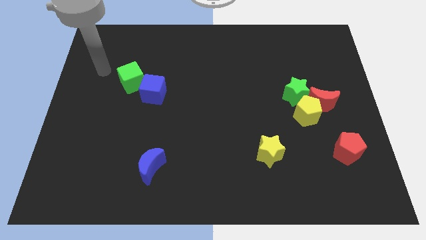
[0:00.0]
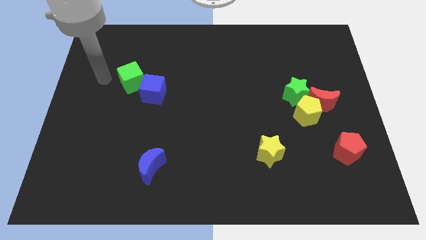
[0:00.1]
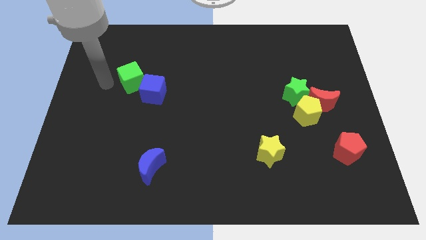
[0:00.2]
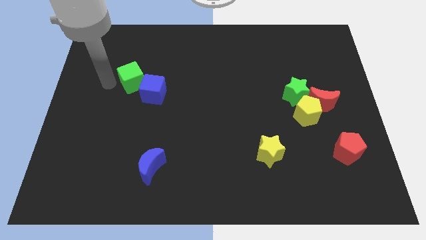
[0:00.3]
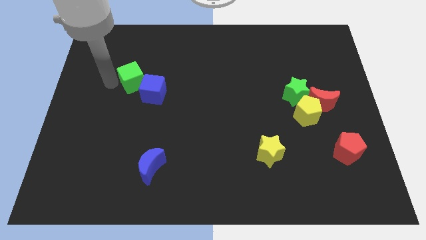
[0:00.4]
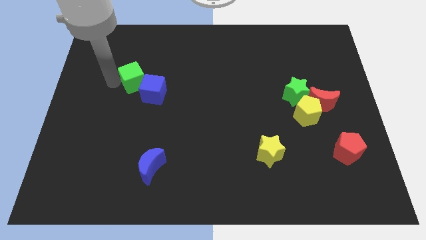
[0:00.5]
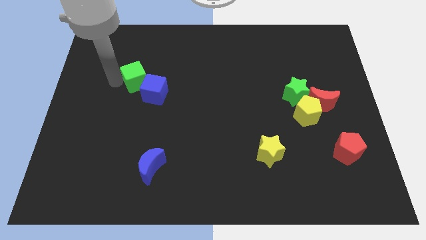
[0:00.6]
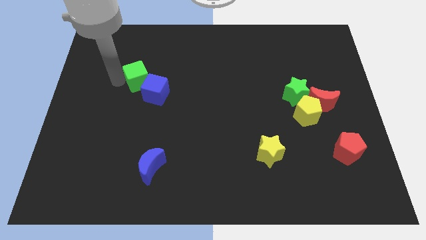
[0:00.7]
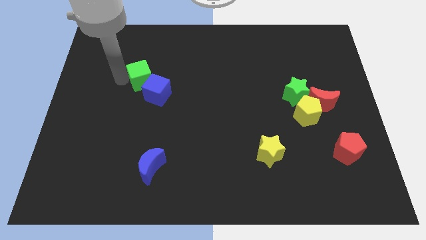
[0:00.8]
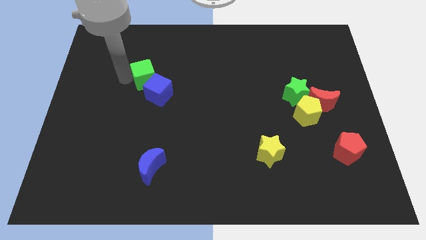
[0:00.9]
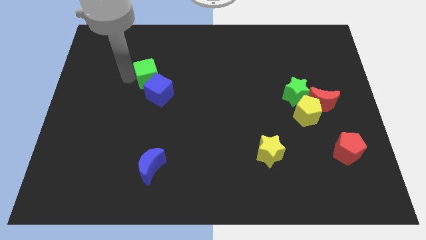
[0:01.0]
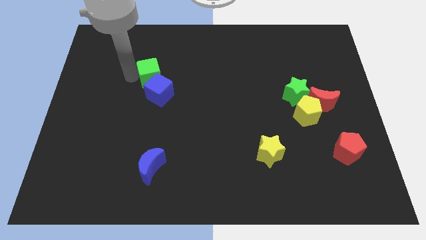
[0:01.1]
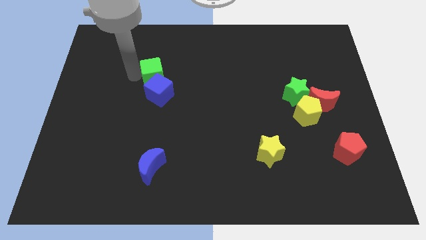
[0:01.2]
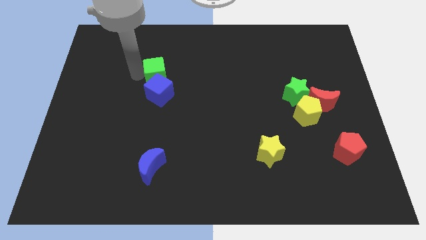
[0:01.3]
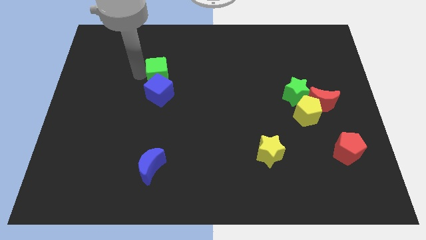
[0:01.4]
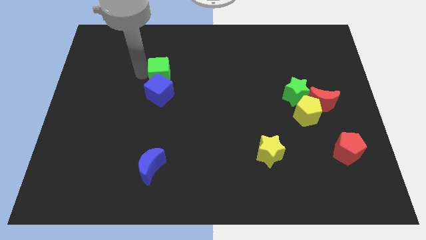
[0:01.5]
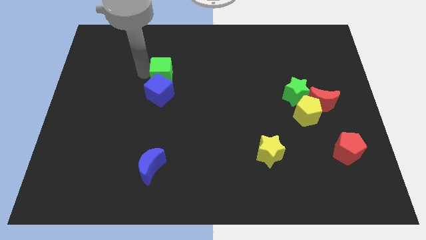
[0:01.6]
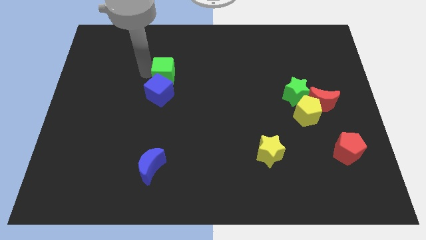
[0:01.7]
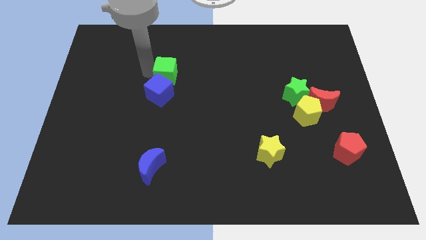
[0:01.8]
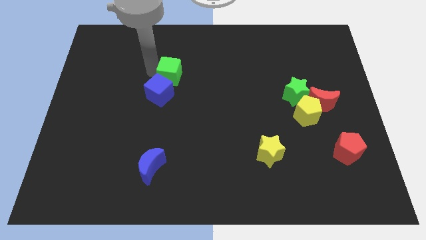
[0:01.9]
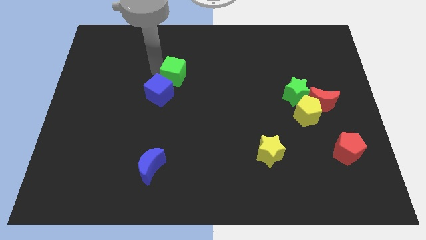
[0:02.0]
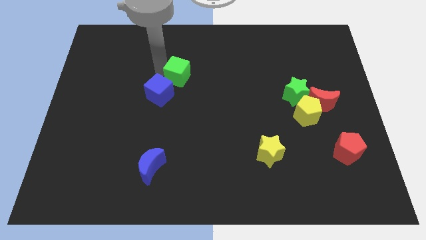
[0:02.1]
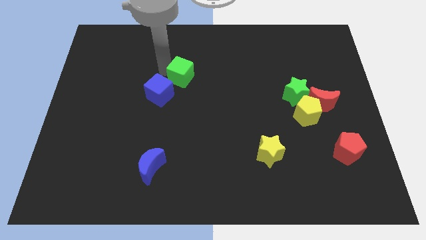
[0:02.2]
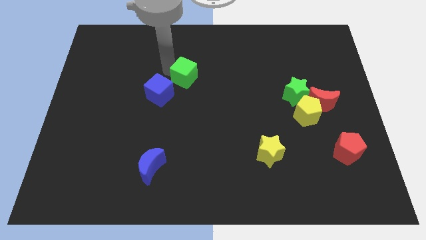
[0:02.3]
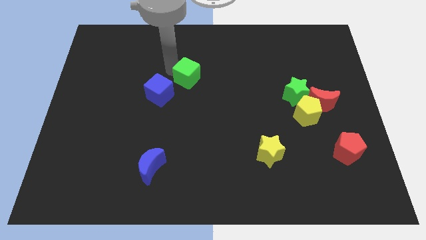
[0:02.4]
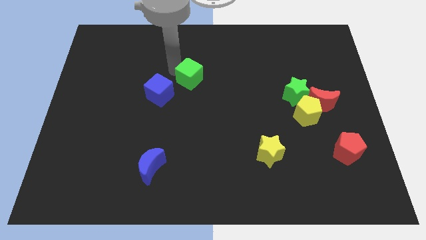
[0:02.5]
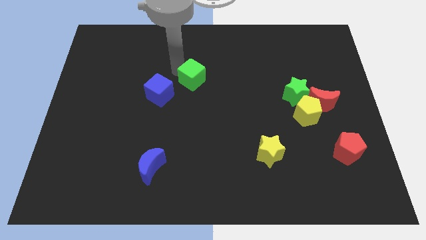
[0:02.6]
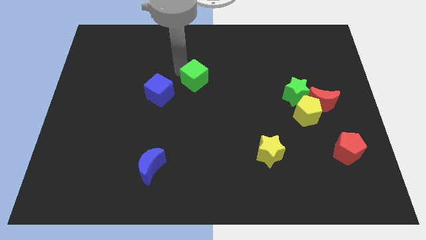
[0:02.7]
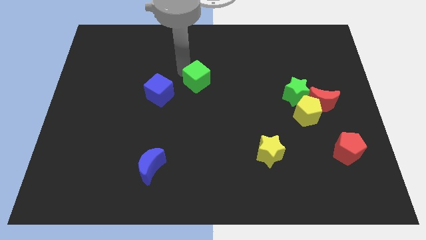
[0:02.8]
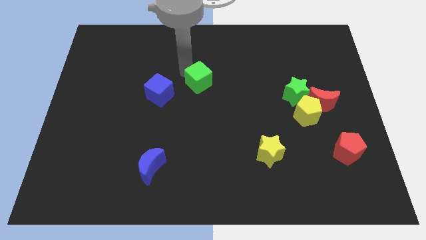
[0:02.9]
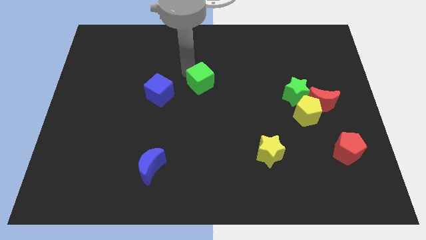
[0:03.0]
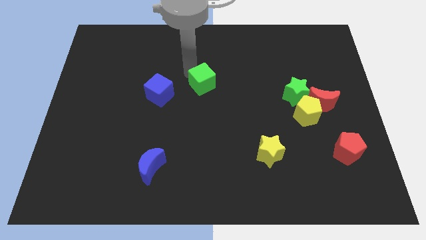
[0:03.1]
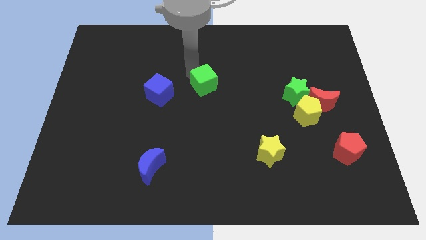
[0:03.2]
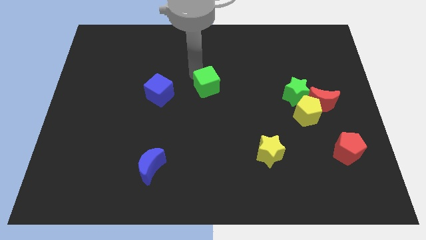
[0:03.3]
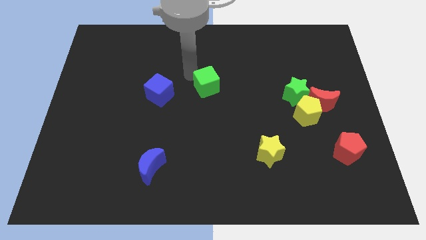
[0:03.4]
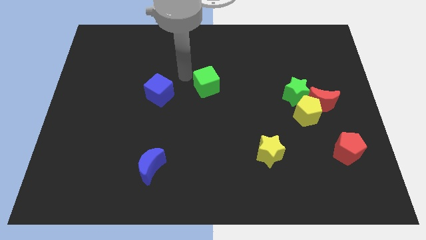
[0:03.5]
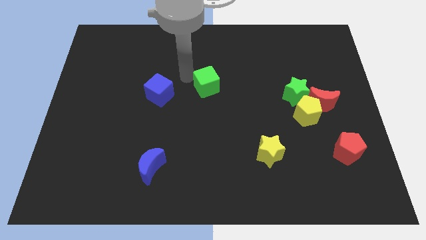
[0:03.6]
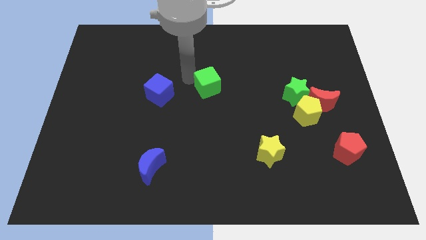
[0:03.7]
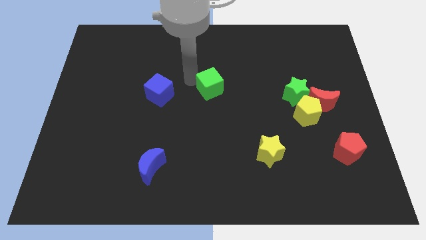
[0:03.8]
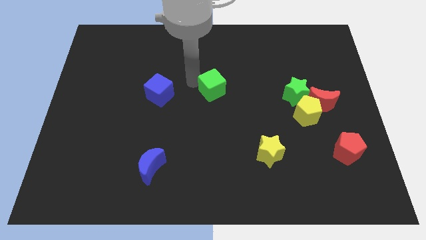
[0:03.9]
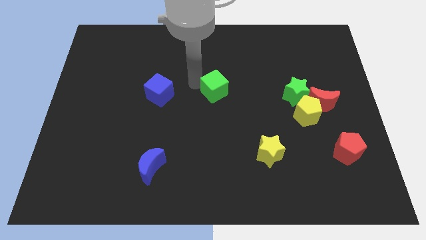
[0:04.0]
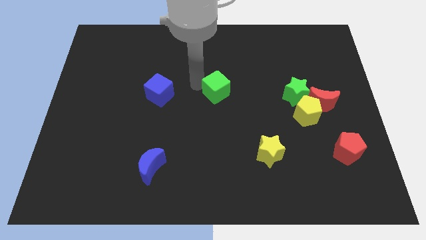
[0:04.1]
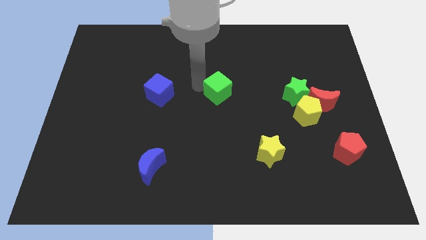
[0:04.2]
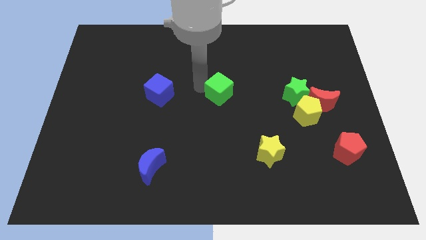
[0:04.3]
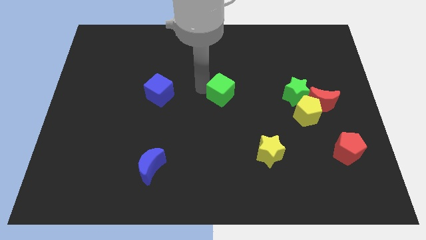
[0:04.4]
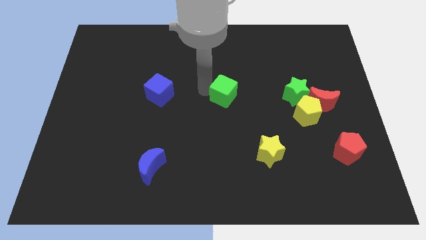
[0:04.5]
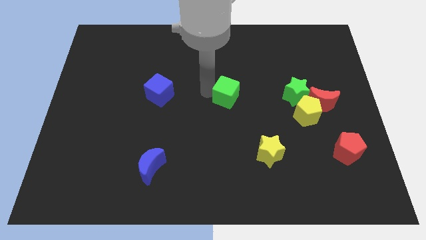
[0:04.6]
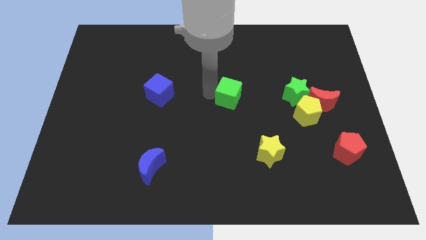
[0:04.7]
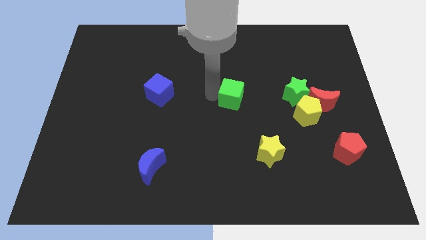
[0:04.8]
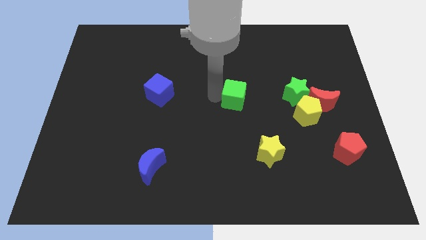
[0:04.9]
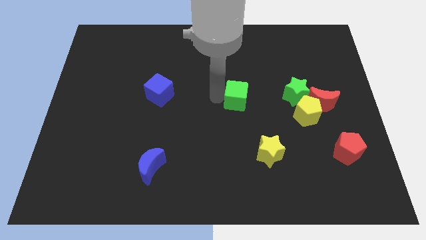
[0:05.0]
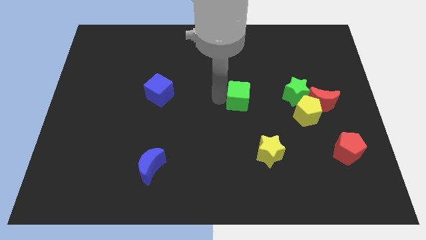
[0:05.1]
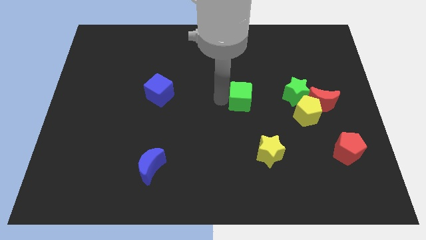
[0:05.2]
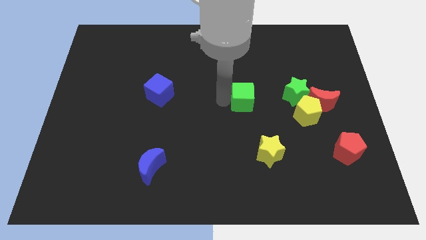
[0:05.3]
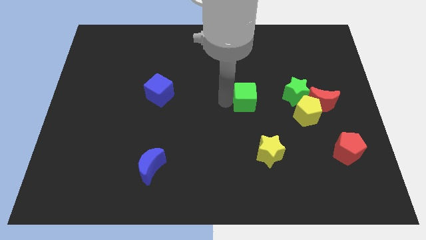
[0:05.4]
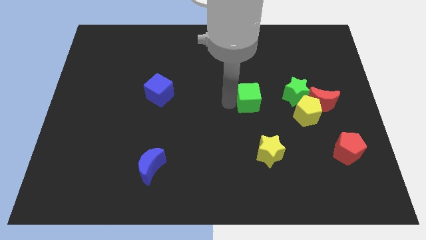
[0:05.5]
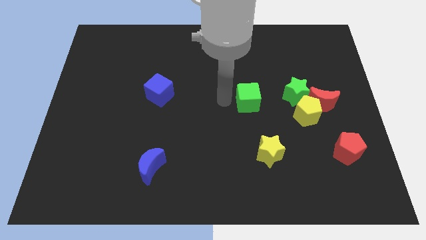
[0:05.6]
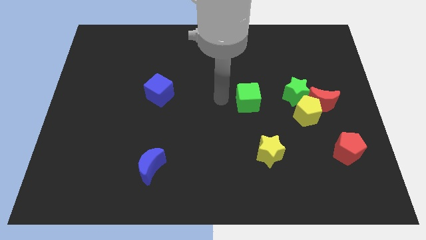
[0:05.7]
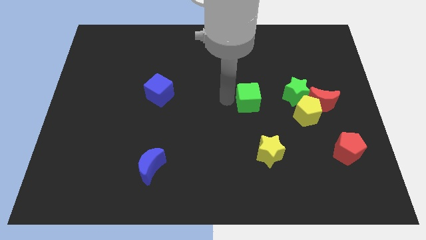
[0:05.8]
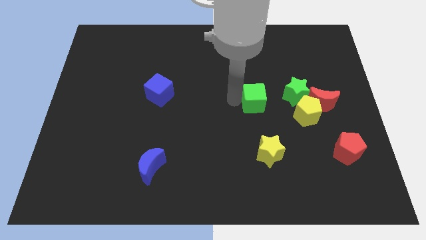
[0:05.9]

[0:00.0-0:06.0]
push the green cube to the left side of the red moon

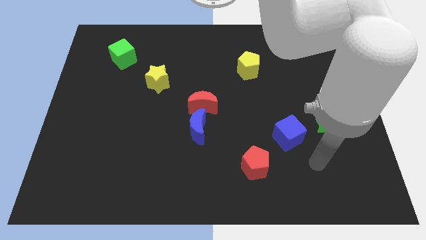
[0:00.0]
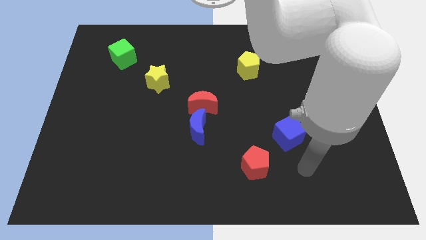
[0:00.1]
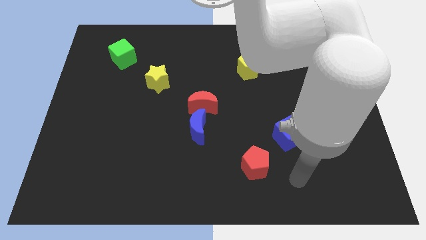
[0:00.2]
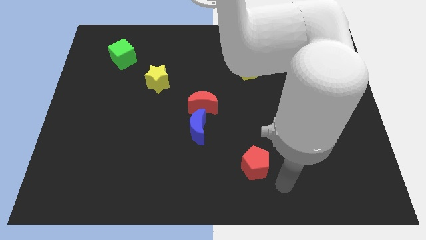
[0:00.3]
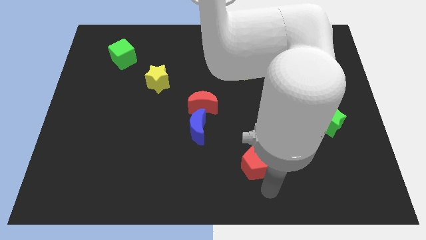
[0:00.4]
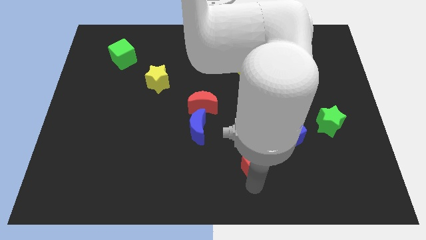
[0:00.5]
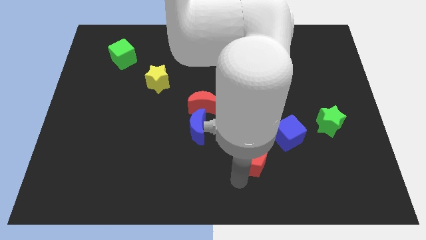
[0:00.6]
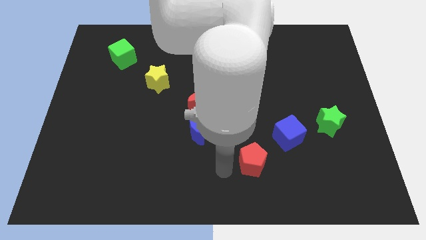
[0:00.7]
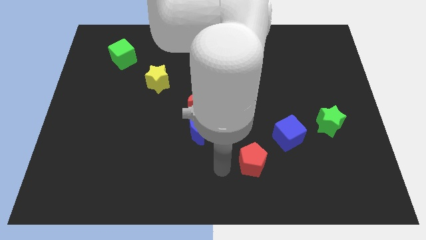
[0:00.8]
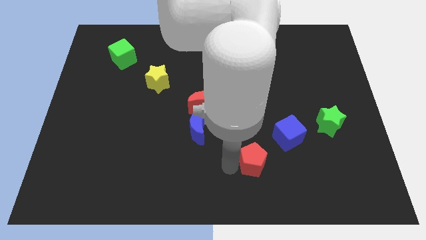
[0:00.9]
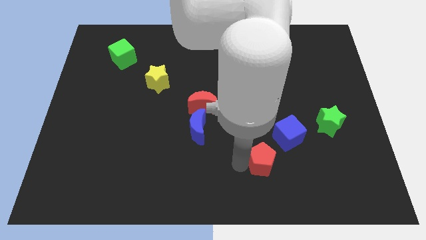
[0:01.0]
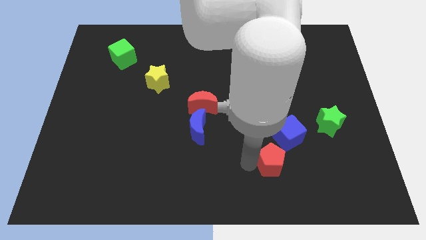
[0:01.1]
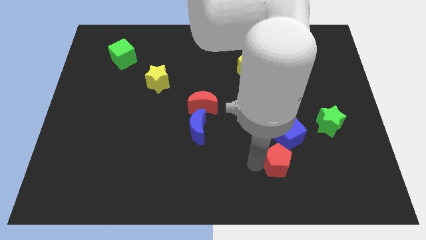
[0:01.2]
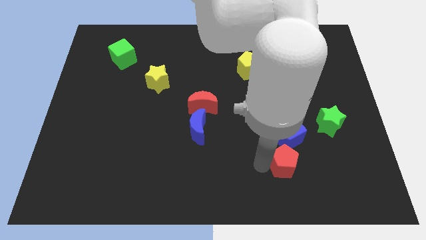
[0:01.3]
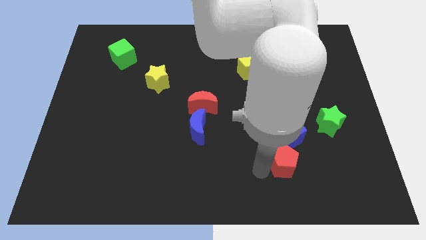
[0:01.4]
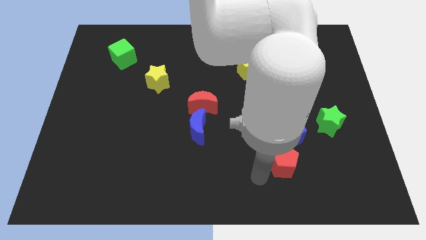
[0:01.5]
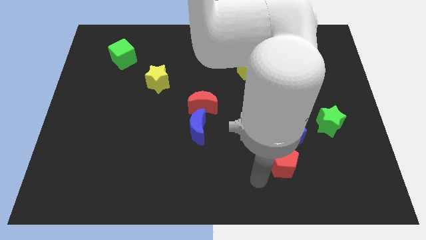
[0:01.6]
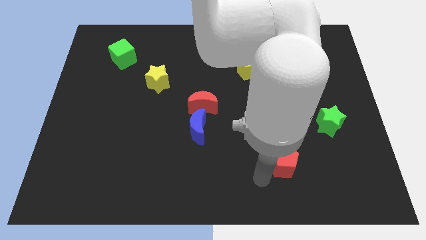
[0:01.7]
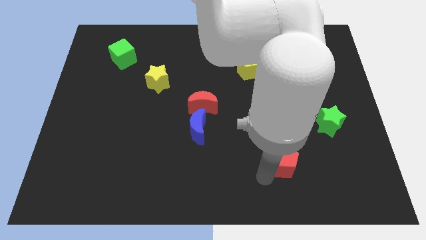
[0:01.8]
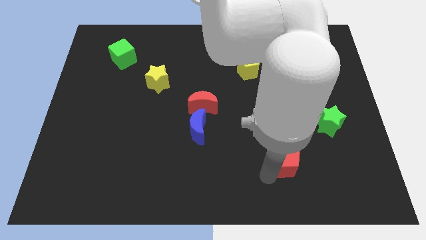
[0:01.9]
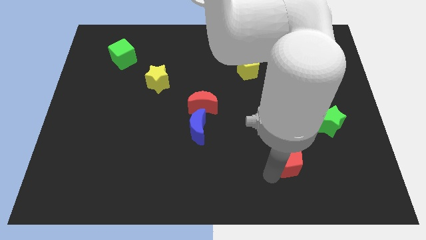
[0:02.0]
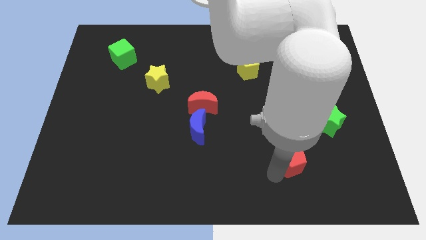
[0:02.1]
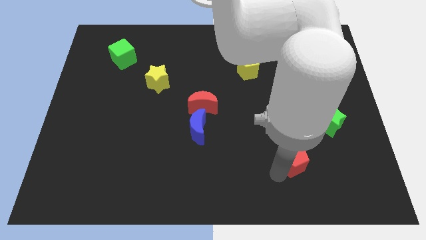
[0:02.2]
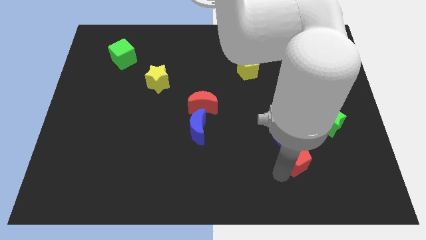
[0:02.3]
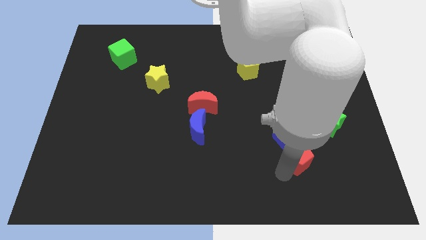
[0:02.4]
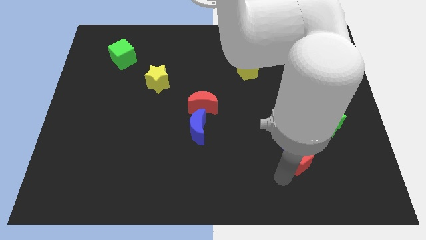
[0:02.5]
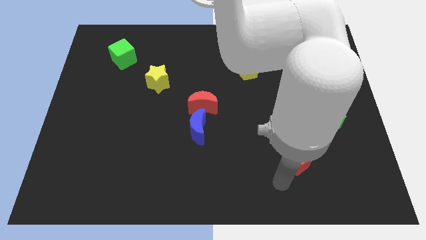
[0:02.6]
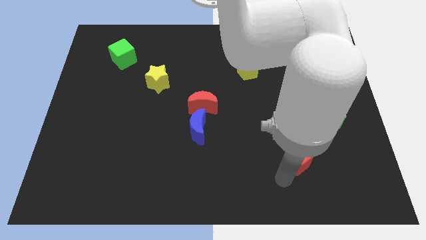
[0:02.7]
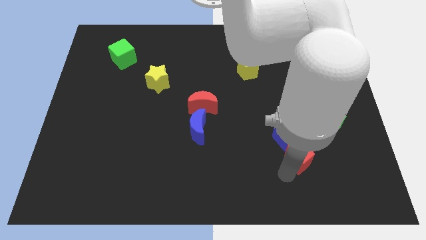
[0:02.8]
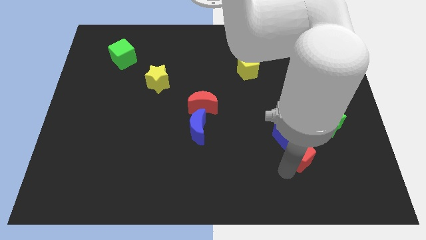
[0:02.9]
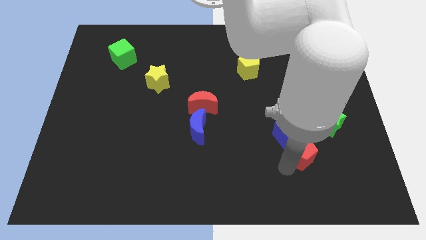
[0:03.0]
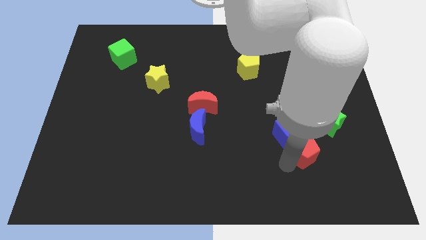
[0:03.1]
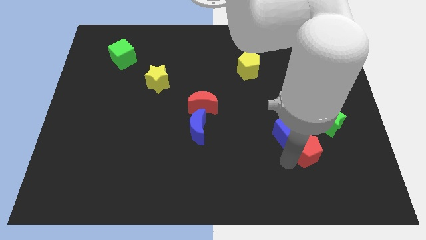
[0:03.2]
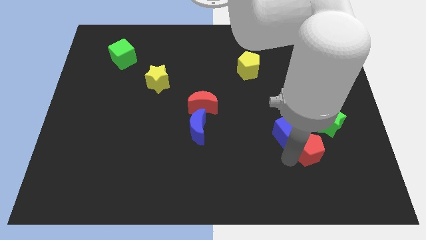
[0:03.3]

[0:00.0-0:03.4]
put the red pentagon just right of the blue cube
